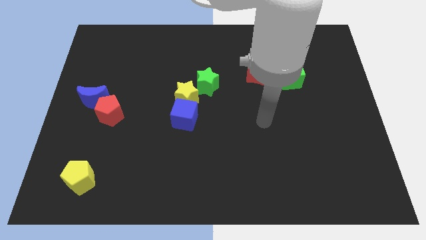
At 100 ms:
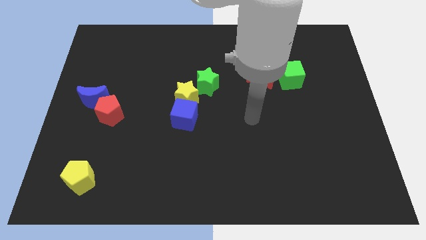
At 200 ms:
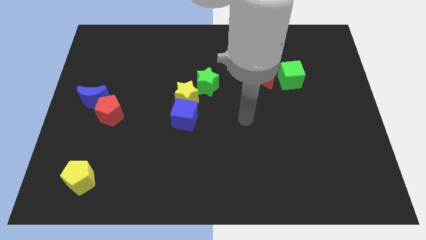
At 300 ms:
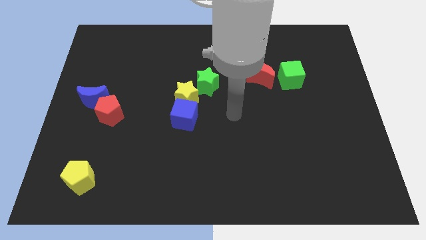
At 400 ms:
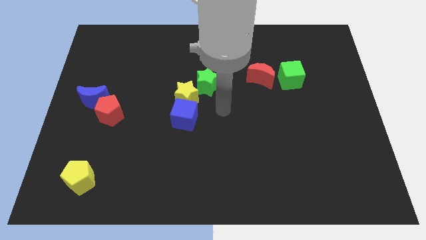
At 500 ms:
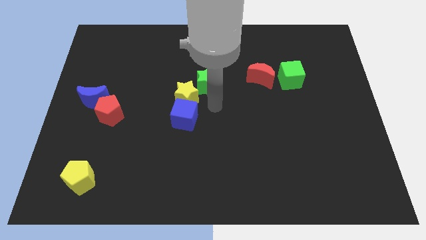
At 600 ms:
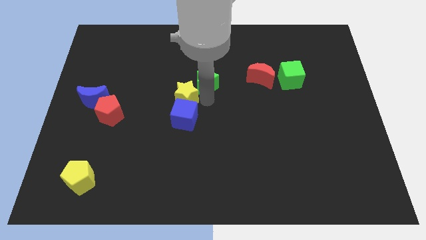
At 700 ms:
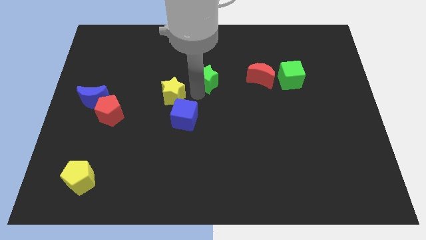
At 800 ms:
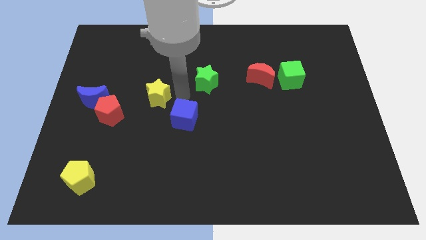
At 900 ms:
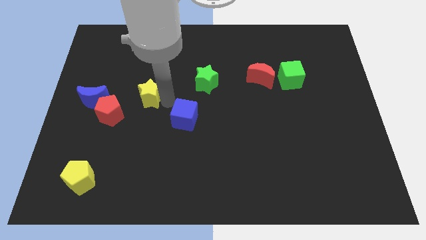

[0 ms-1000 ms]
move the blue cube away from the yellow star

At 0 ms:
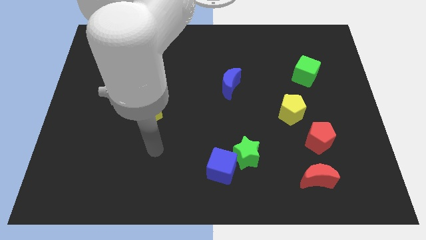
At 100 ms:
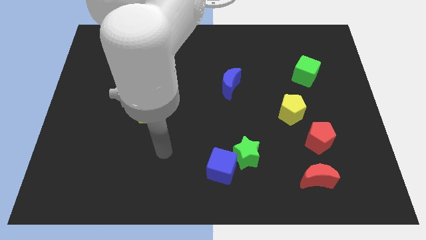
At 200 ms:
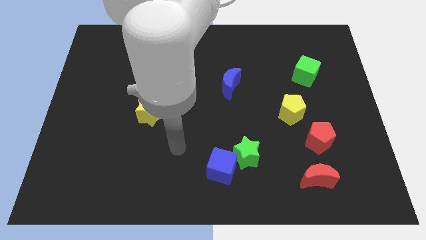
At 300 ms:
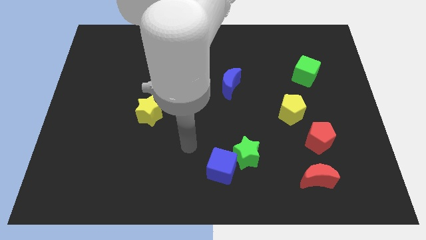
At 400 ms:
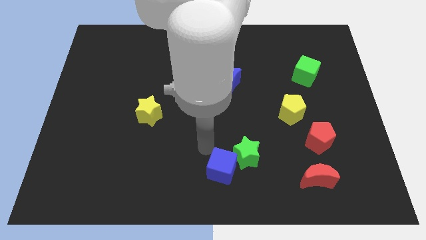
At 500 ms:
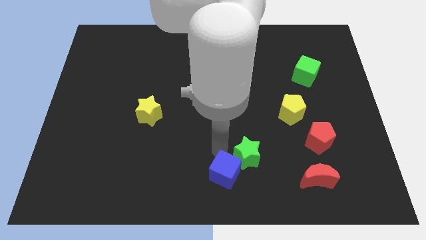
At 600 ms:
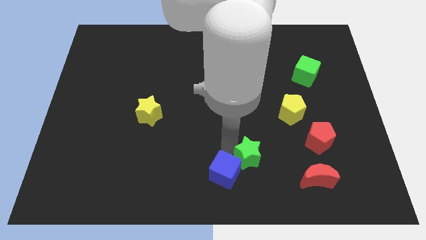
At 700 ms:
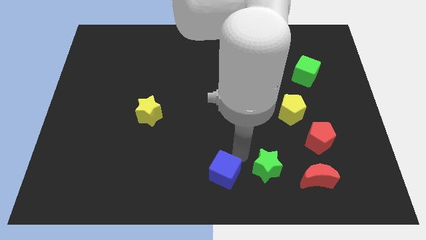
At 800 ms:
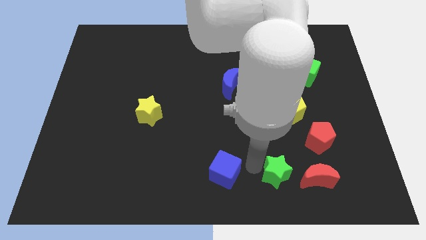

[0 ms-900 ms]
move the blue cube away from the green star

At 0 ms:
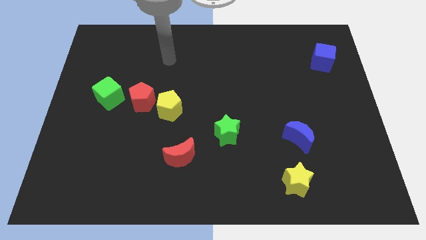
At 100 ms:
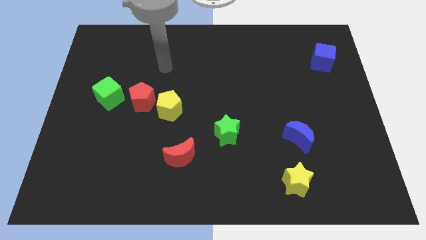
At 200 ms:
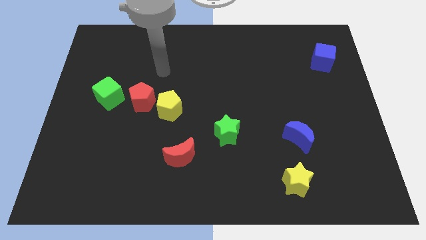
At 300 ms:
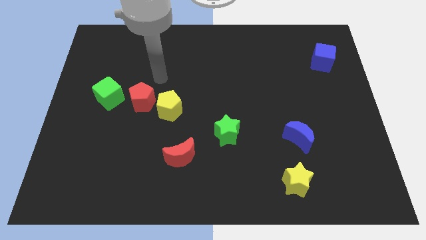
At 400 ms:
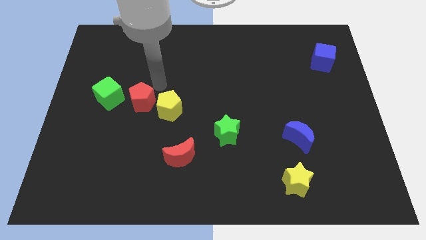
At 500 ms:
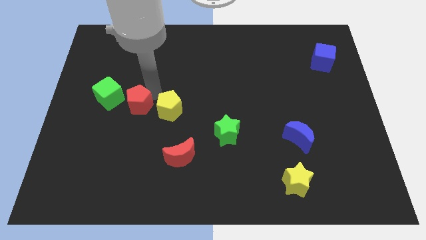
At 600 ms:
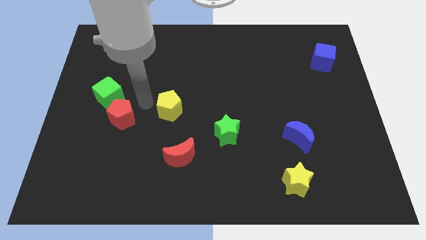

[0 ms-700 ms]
separate the yellow pentagon from the red pentagon

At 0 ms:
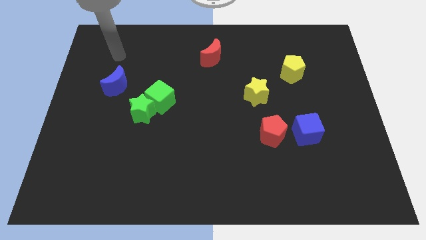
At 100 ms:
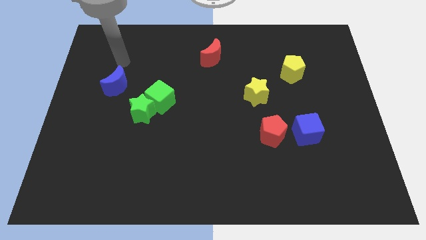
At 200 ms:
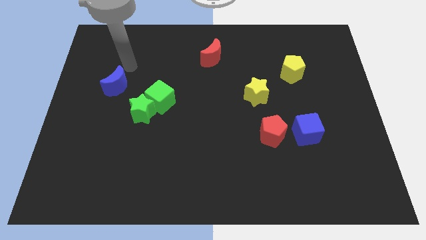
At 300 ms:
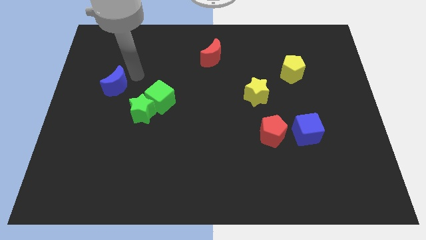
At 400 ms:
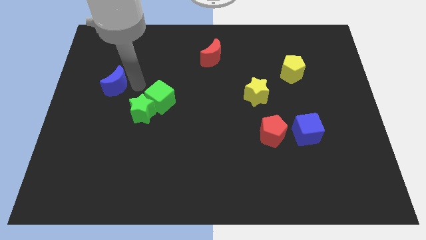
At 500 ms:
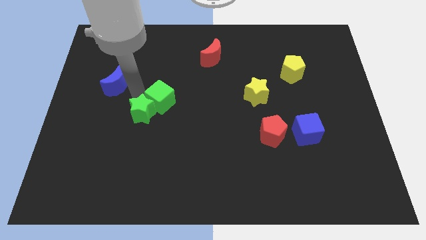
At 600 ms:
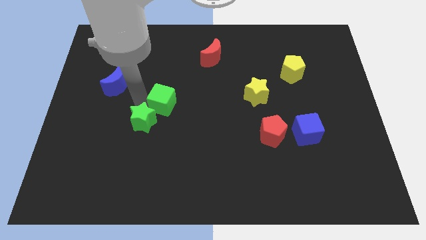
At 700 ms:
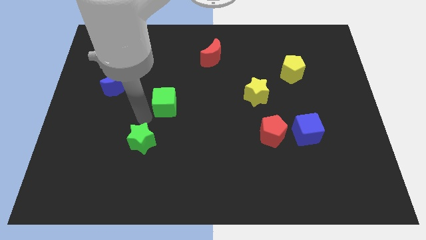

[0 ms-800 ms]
separate the green cube from the green star

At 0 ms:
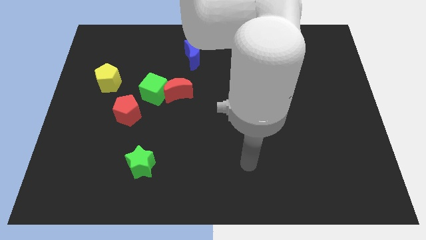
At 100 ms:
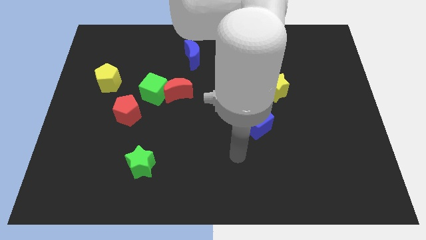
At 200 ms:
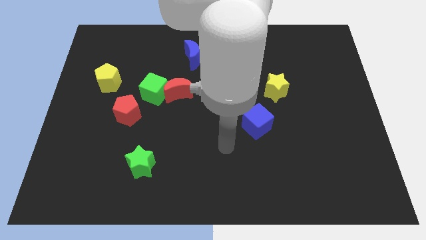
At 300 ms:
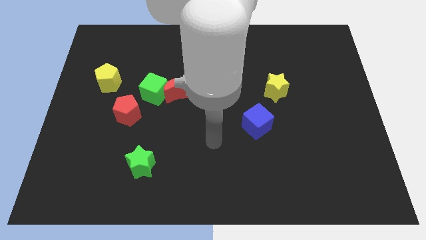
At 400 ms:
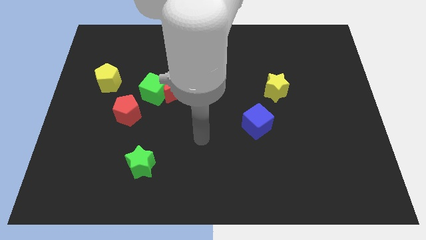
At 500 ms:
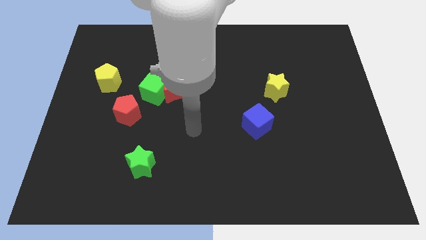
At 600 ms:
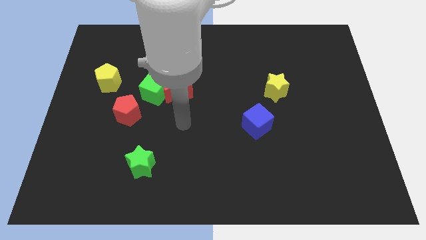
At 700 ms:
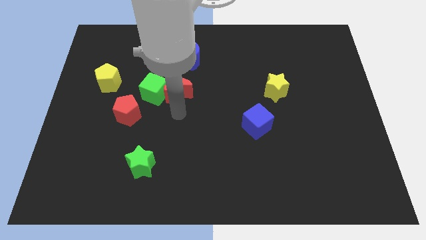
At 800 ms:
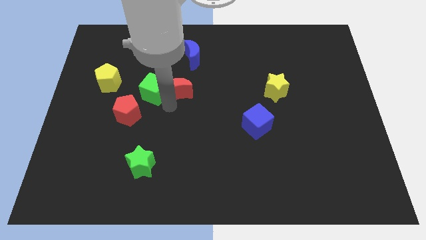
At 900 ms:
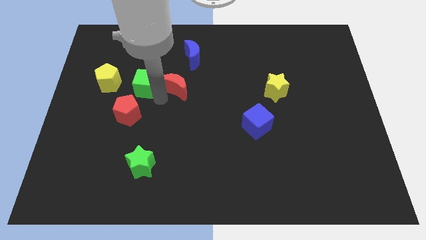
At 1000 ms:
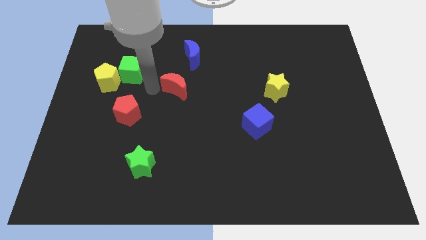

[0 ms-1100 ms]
move the red moon away from the green cube

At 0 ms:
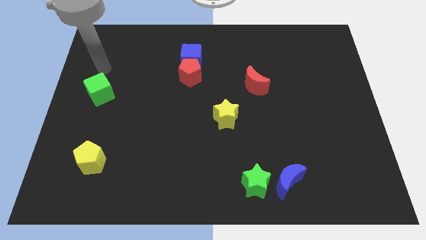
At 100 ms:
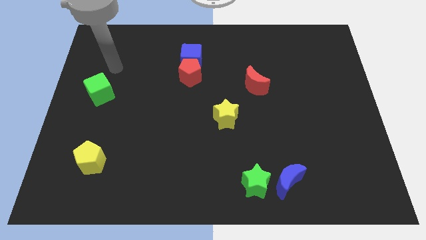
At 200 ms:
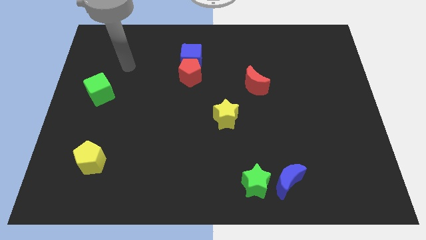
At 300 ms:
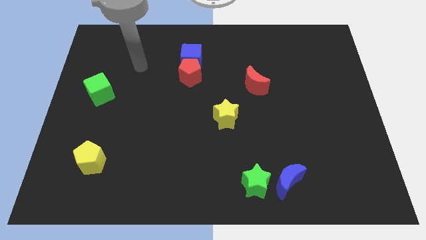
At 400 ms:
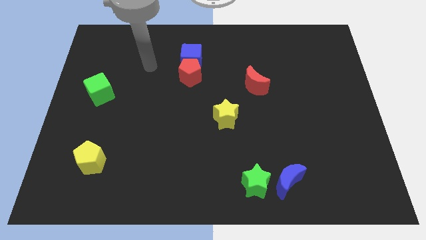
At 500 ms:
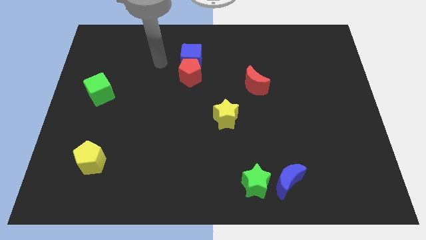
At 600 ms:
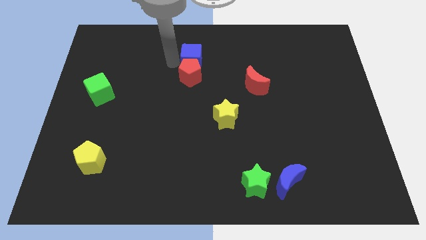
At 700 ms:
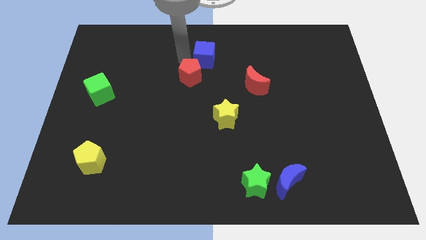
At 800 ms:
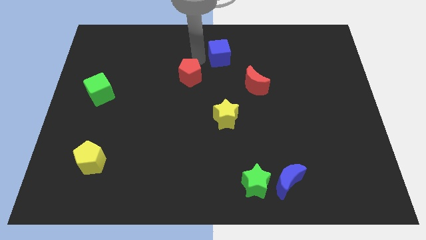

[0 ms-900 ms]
move the red pentagon away from the blue cube

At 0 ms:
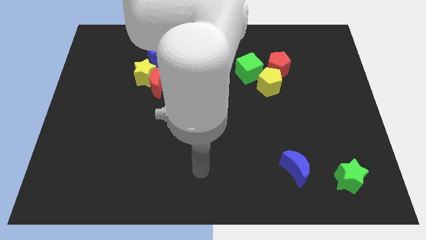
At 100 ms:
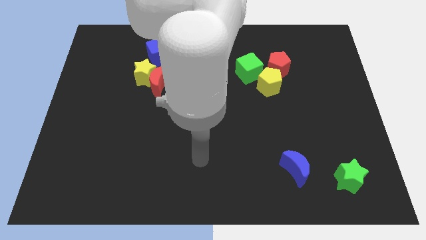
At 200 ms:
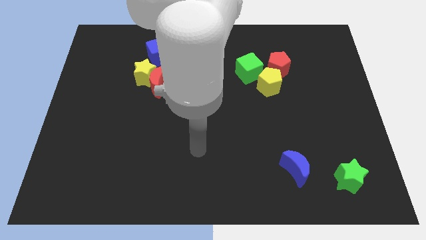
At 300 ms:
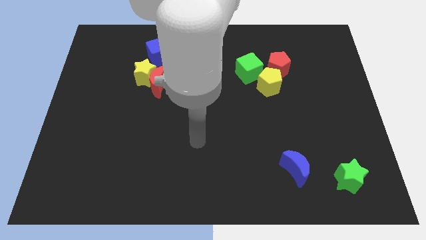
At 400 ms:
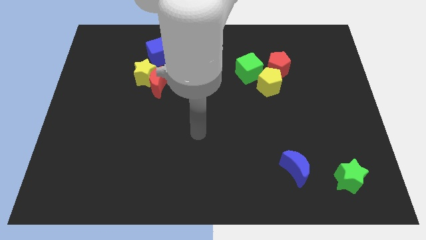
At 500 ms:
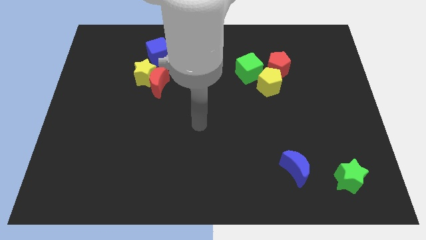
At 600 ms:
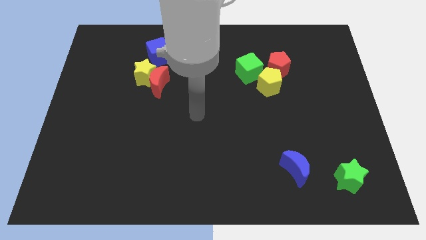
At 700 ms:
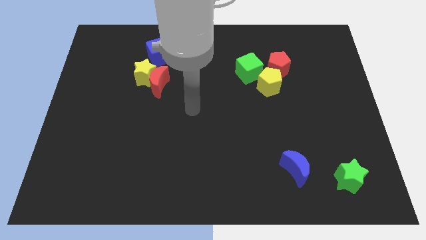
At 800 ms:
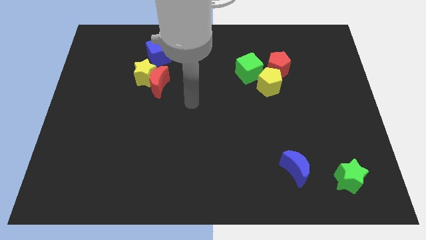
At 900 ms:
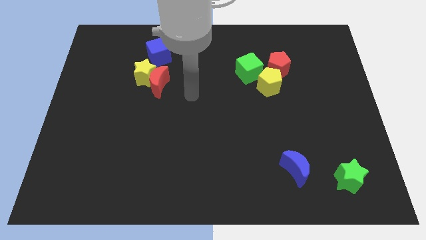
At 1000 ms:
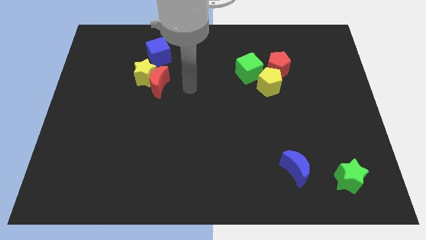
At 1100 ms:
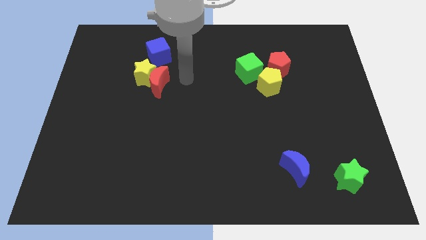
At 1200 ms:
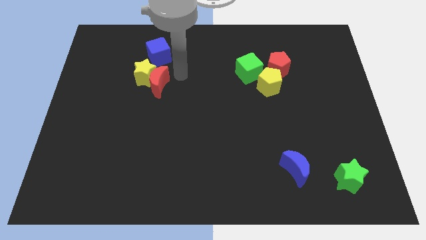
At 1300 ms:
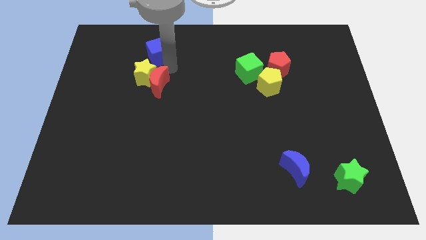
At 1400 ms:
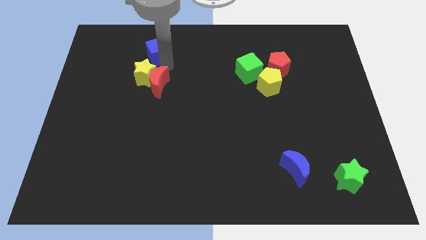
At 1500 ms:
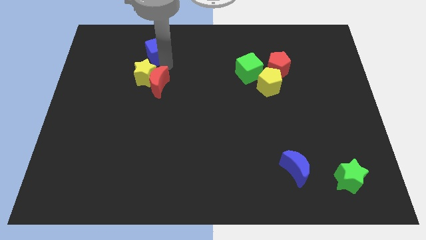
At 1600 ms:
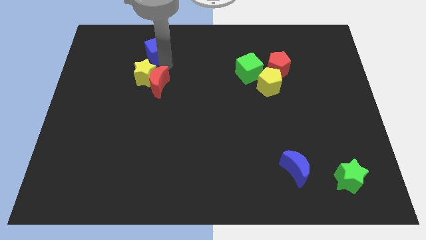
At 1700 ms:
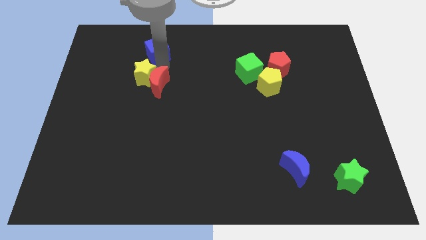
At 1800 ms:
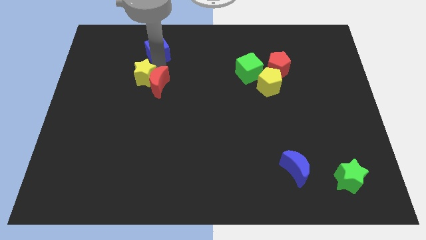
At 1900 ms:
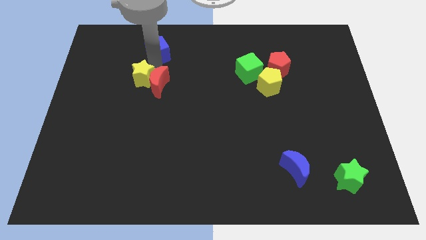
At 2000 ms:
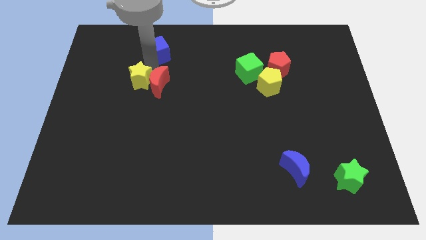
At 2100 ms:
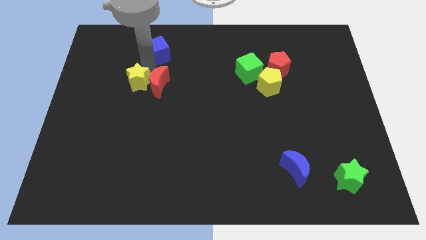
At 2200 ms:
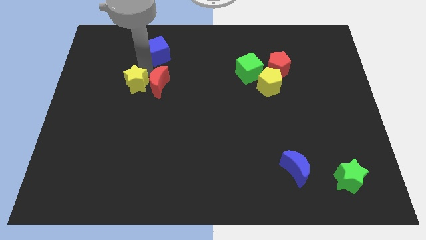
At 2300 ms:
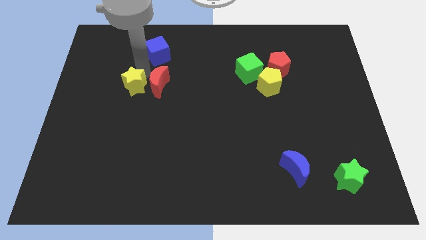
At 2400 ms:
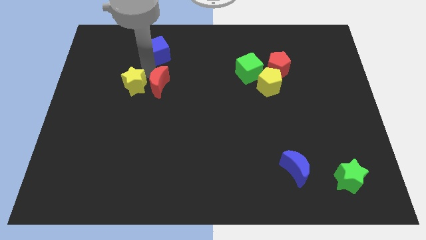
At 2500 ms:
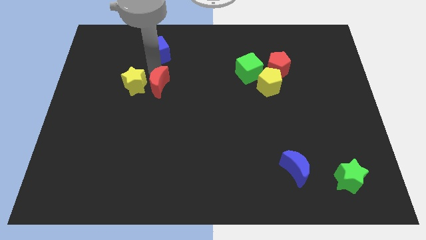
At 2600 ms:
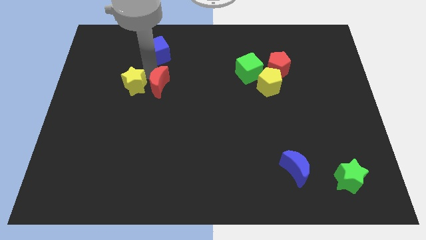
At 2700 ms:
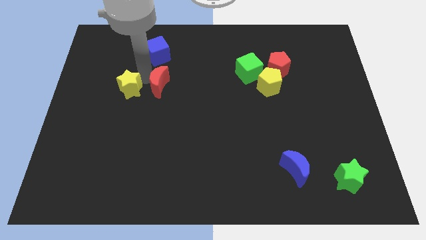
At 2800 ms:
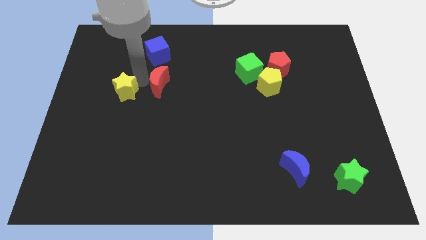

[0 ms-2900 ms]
move the yellow star away from the red moon and blue cube

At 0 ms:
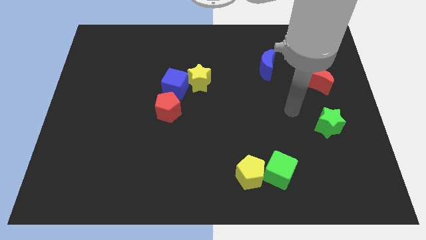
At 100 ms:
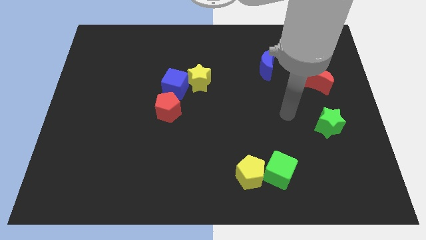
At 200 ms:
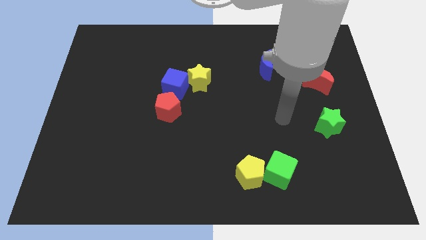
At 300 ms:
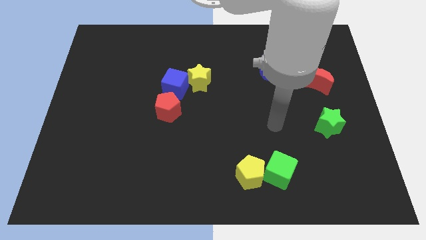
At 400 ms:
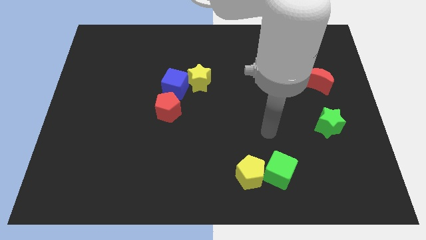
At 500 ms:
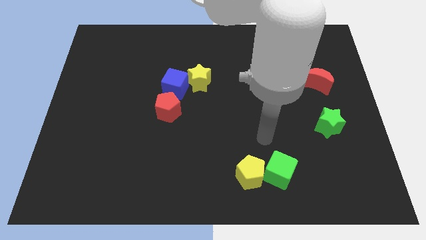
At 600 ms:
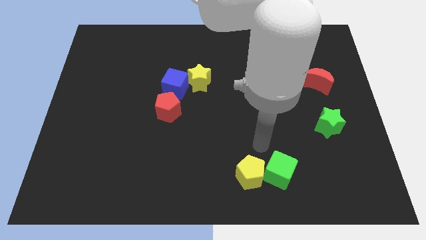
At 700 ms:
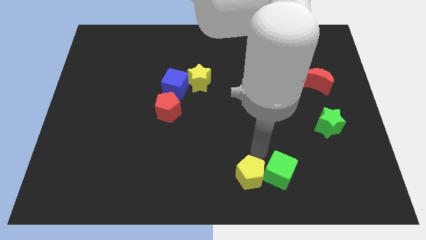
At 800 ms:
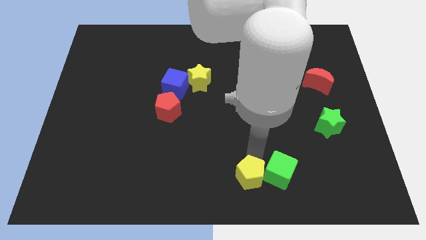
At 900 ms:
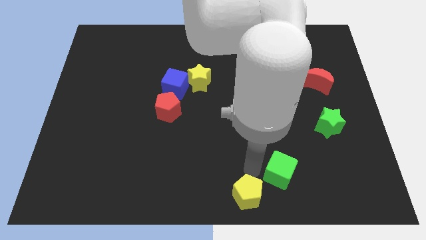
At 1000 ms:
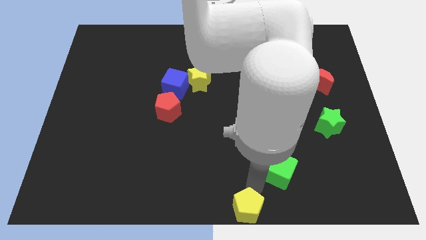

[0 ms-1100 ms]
pull the green cube apart from the yellow pentagon

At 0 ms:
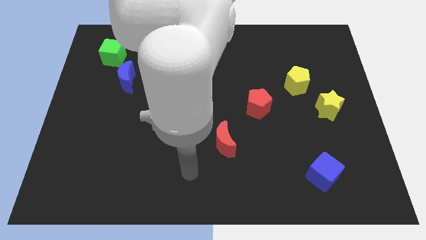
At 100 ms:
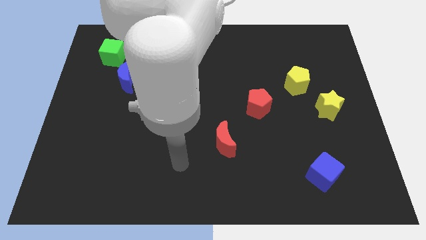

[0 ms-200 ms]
separate the blue moon from the green cube
